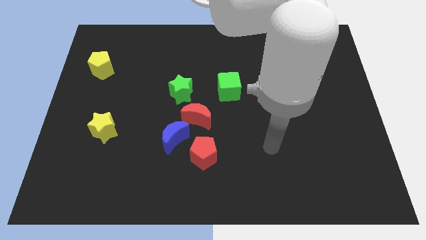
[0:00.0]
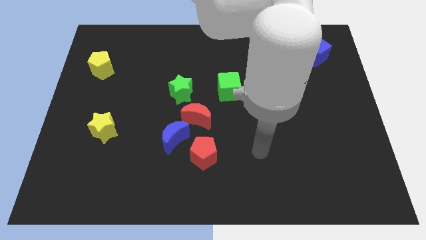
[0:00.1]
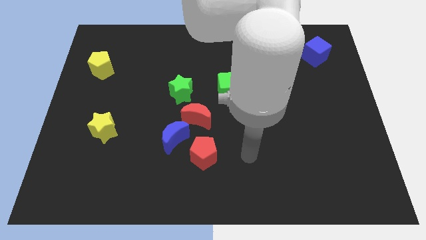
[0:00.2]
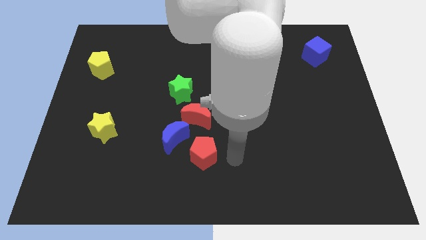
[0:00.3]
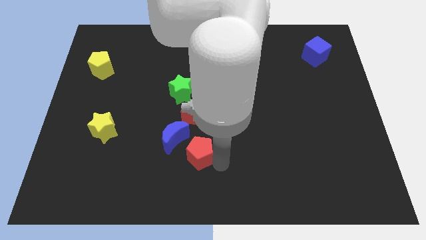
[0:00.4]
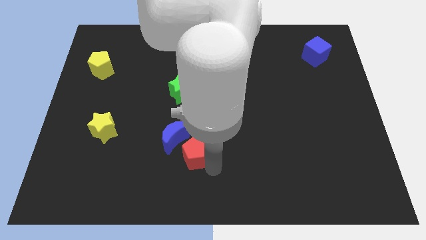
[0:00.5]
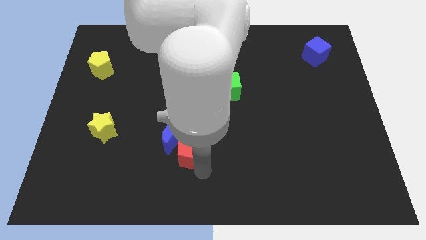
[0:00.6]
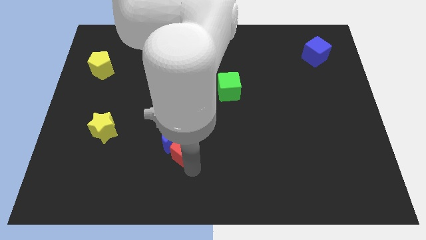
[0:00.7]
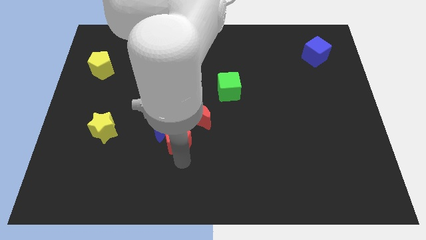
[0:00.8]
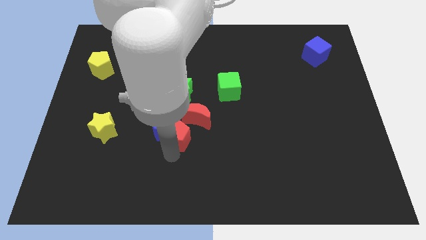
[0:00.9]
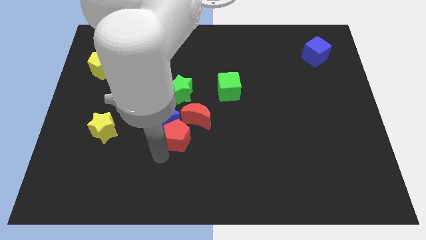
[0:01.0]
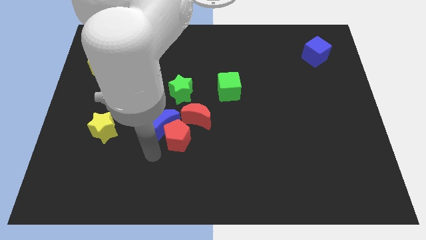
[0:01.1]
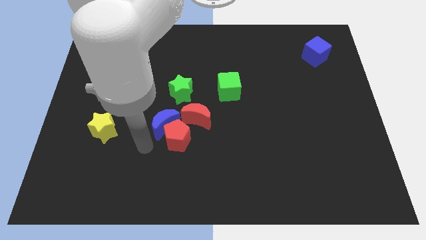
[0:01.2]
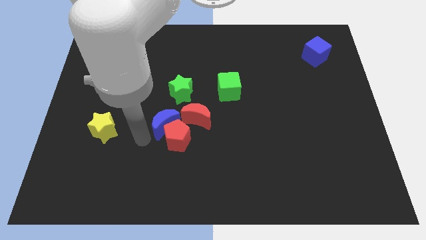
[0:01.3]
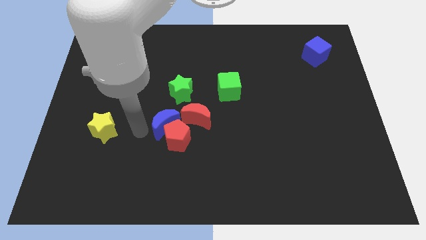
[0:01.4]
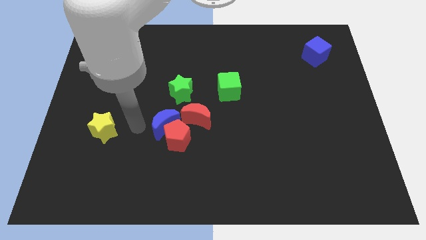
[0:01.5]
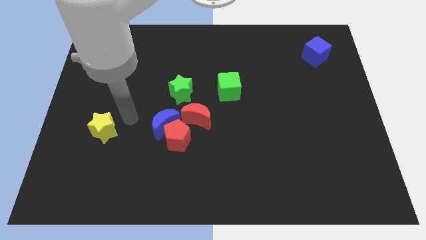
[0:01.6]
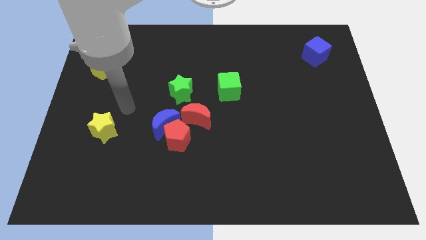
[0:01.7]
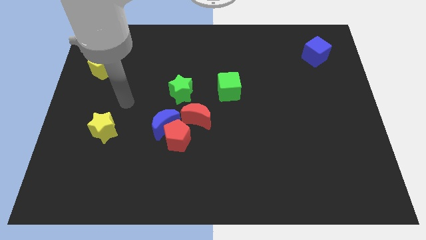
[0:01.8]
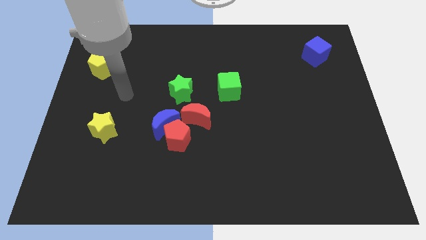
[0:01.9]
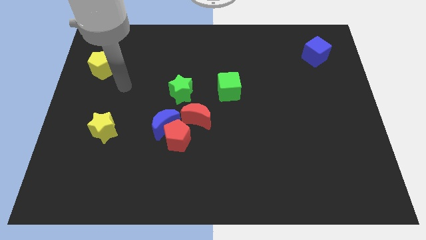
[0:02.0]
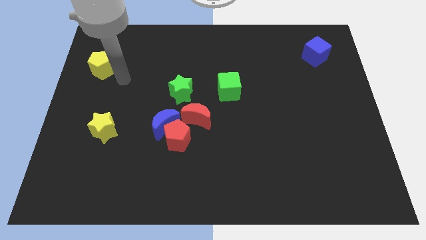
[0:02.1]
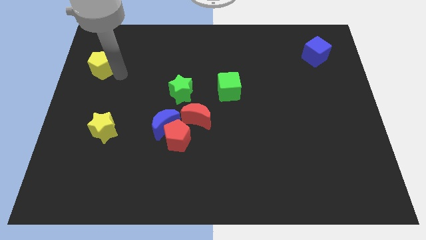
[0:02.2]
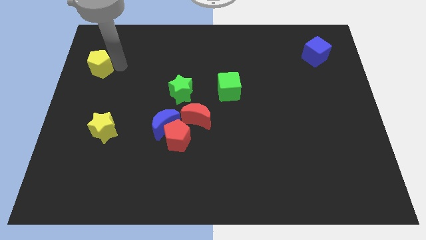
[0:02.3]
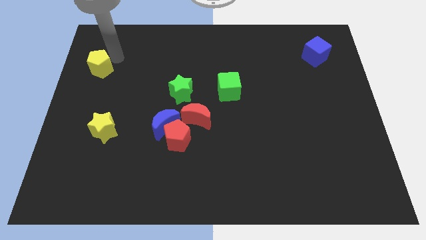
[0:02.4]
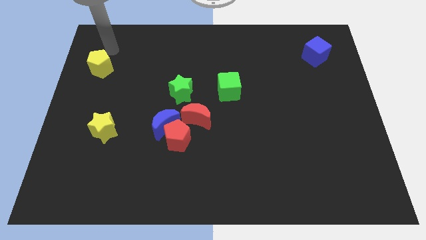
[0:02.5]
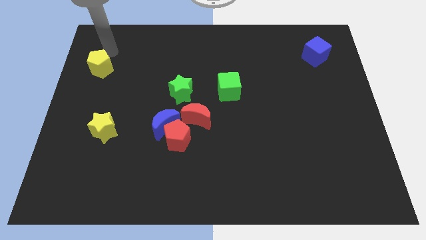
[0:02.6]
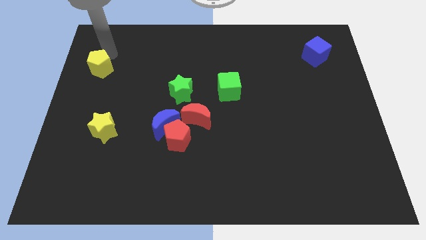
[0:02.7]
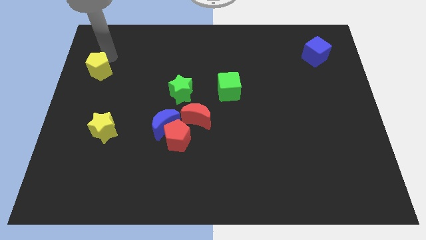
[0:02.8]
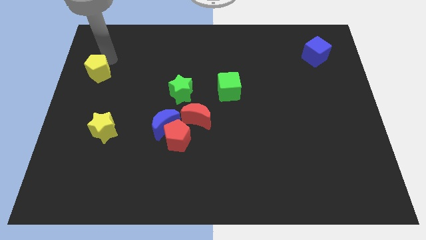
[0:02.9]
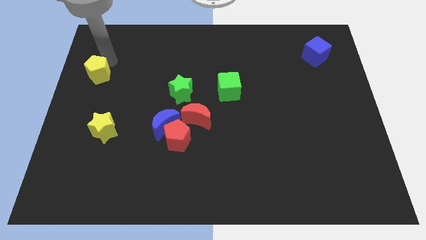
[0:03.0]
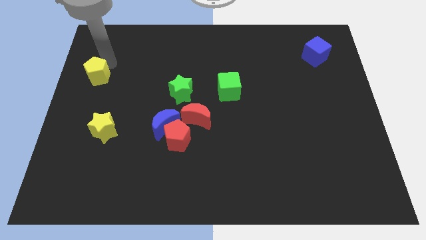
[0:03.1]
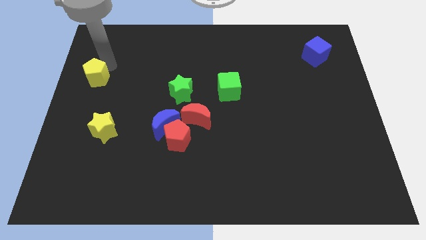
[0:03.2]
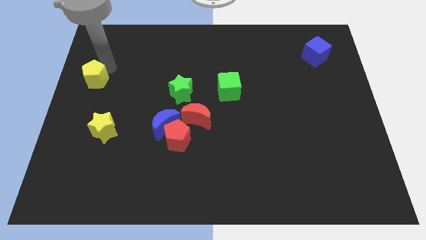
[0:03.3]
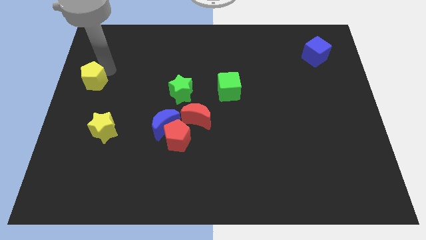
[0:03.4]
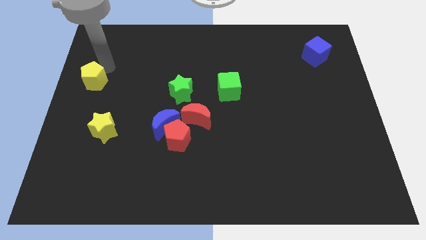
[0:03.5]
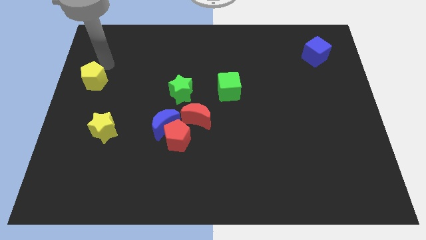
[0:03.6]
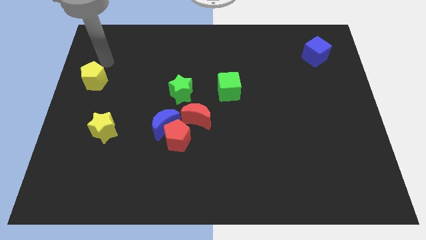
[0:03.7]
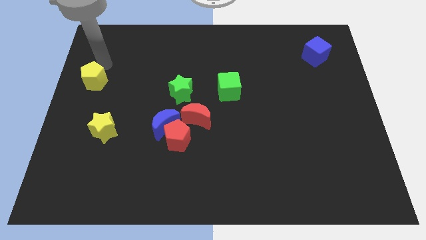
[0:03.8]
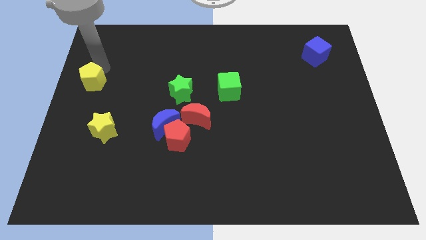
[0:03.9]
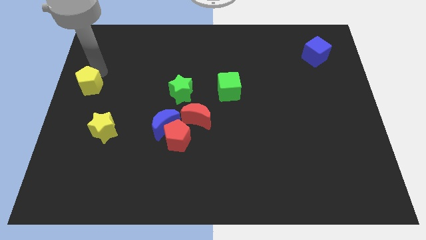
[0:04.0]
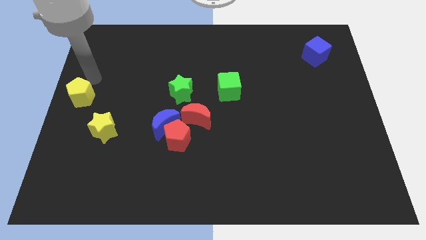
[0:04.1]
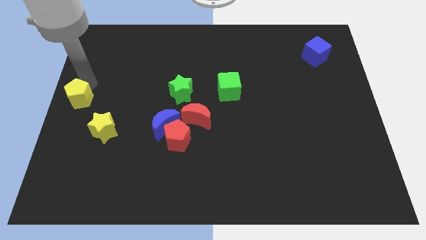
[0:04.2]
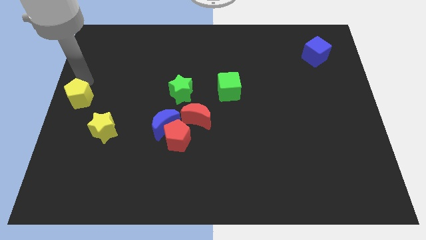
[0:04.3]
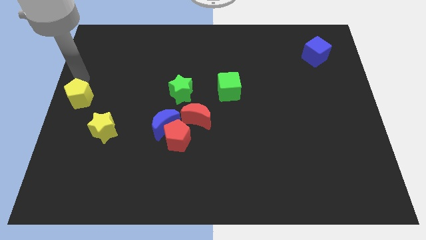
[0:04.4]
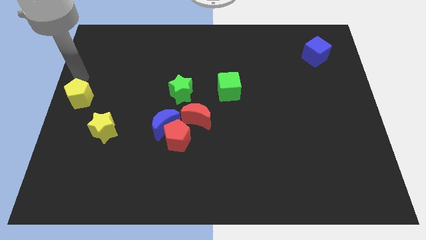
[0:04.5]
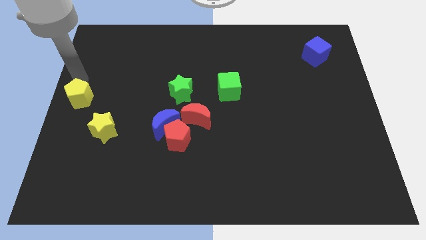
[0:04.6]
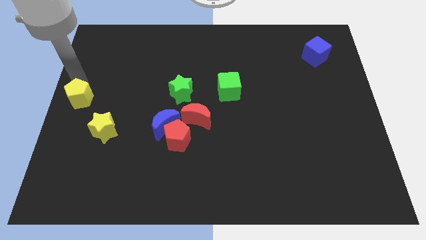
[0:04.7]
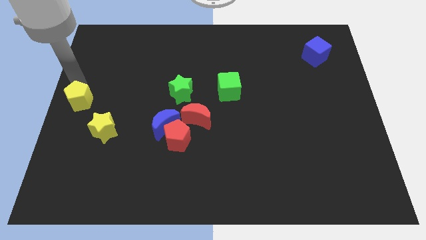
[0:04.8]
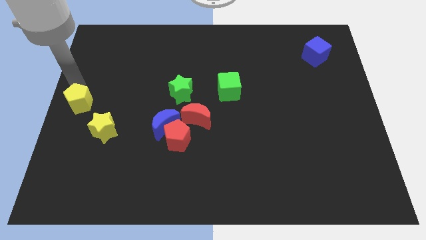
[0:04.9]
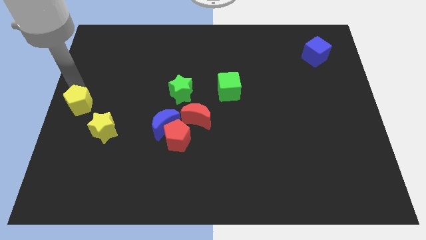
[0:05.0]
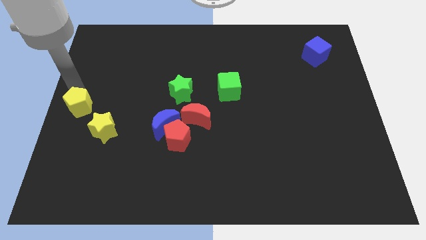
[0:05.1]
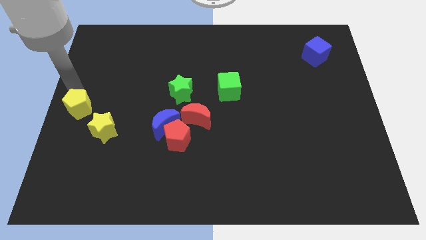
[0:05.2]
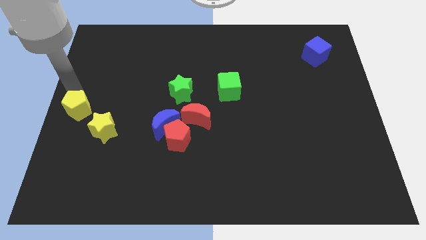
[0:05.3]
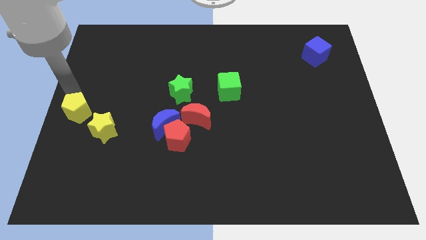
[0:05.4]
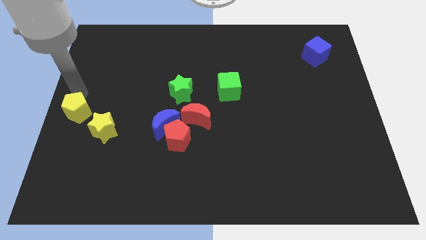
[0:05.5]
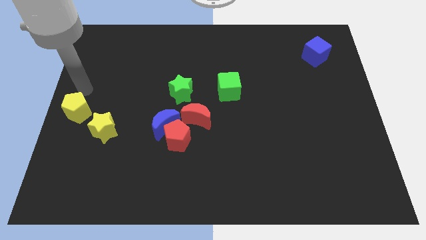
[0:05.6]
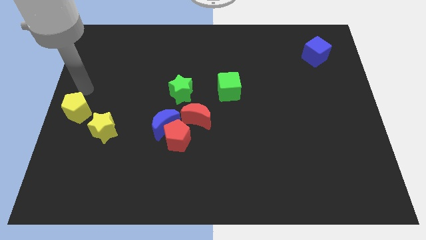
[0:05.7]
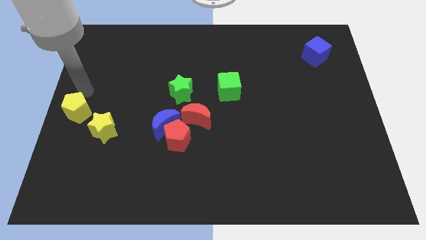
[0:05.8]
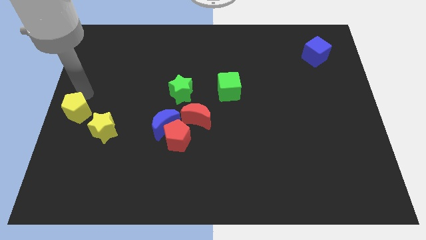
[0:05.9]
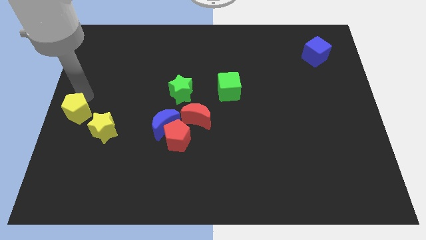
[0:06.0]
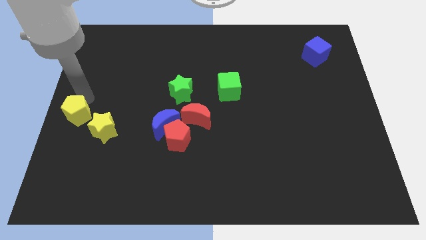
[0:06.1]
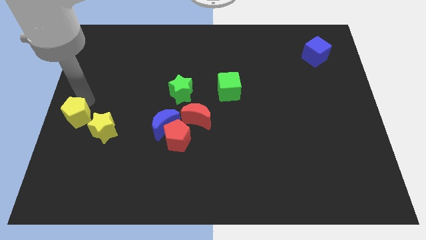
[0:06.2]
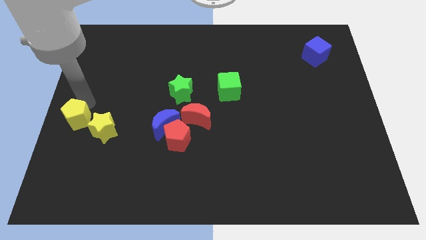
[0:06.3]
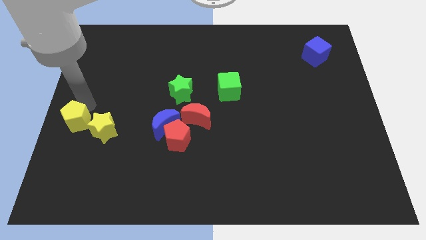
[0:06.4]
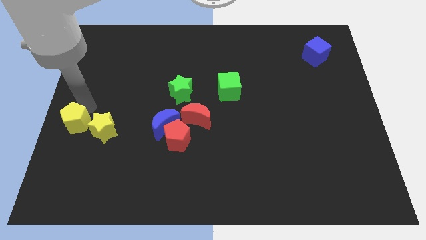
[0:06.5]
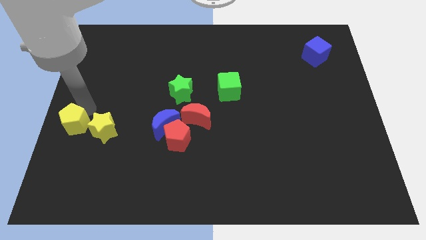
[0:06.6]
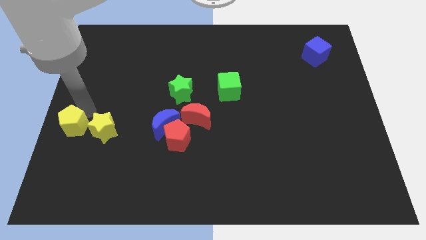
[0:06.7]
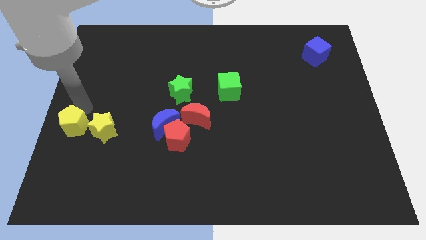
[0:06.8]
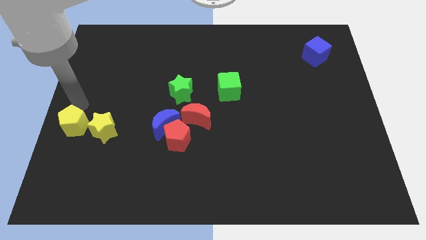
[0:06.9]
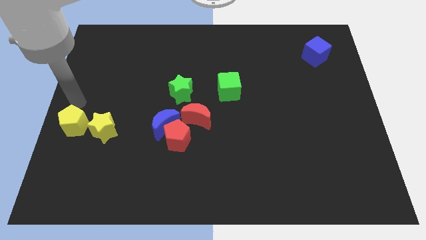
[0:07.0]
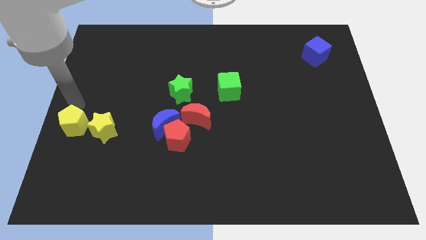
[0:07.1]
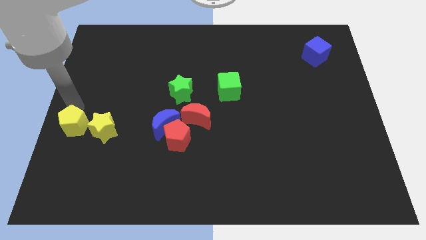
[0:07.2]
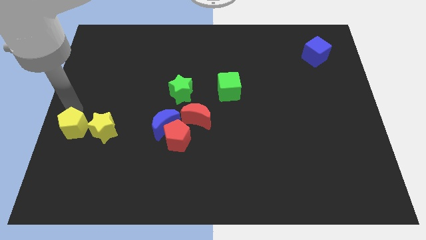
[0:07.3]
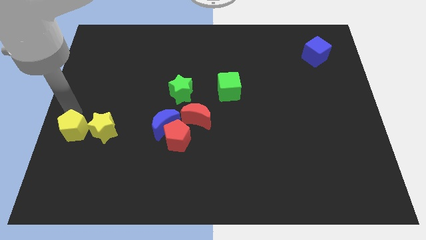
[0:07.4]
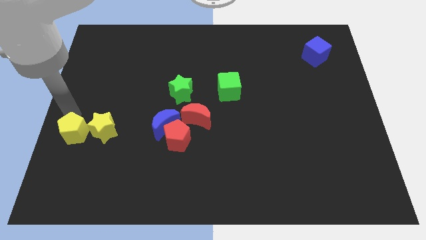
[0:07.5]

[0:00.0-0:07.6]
push the yellow pentagon down

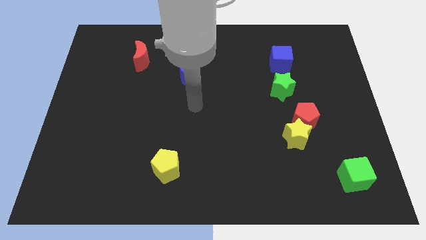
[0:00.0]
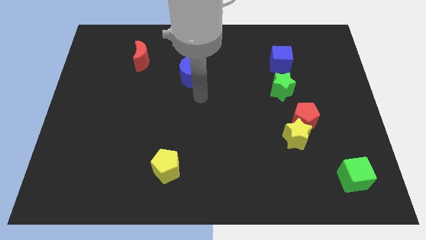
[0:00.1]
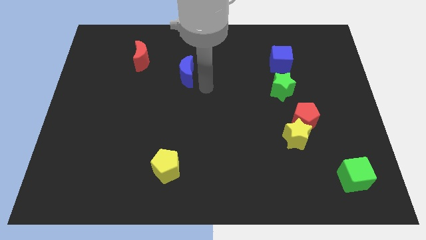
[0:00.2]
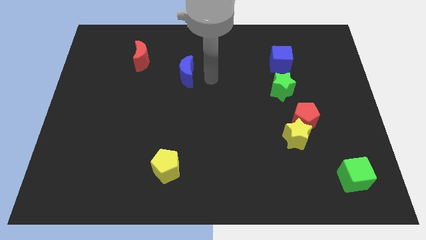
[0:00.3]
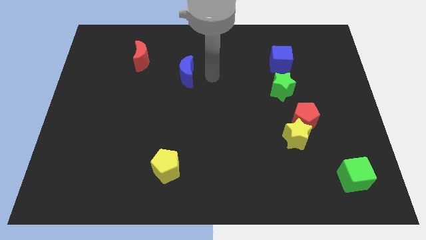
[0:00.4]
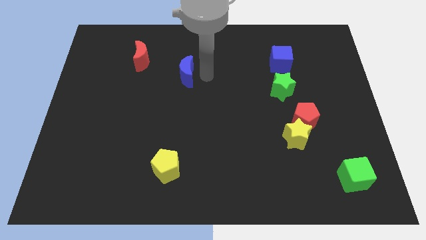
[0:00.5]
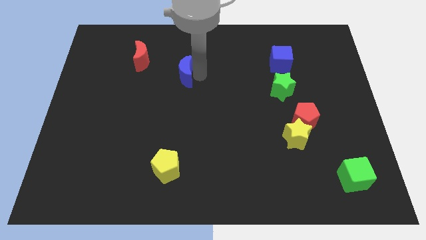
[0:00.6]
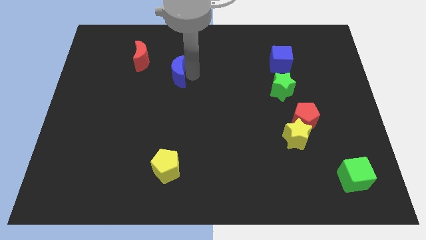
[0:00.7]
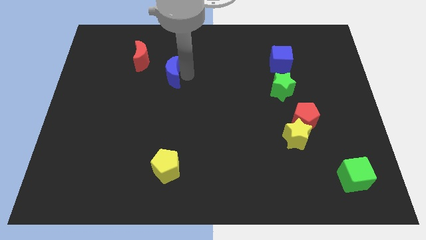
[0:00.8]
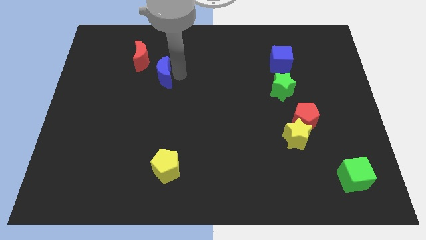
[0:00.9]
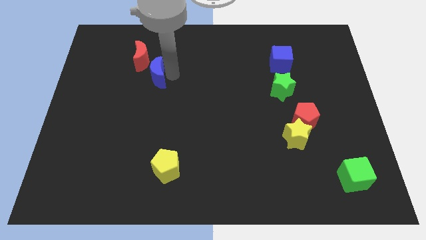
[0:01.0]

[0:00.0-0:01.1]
move the blue moon a little to the left
